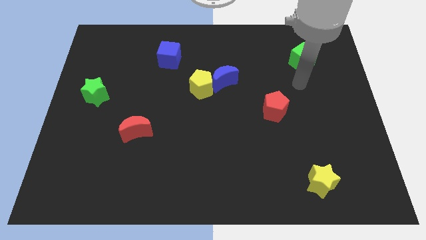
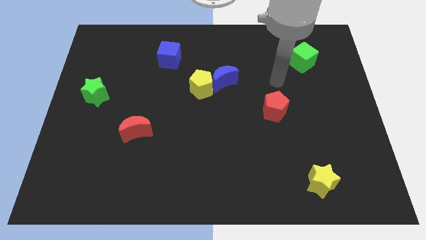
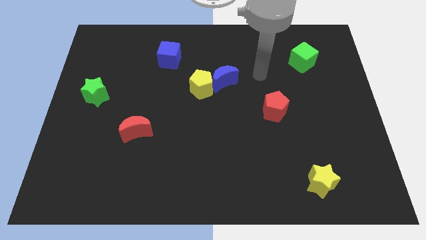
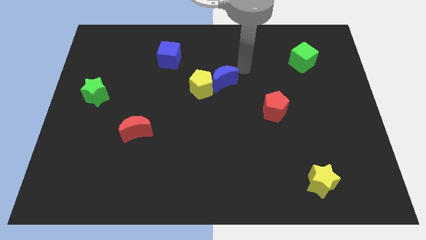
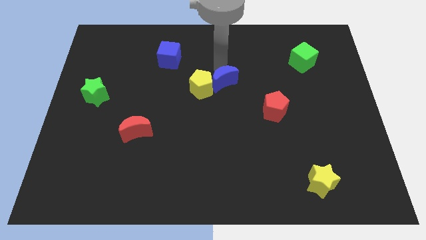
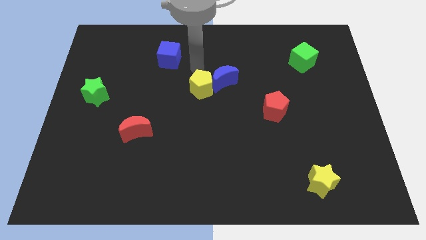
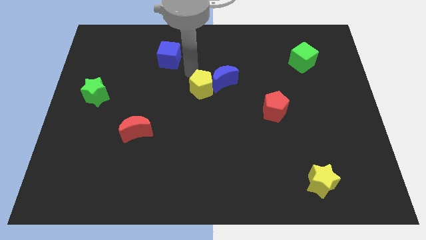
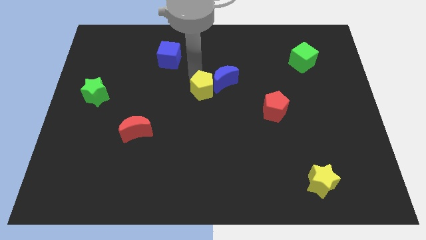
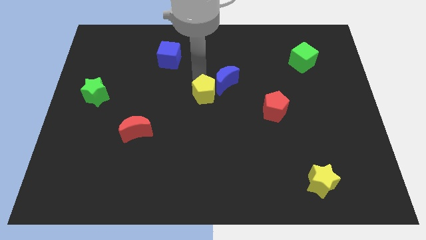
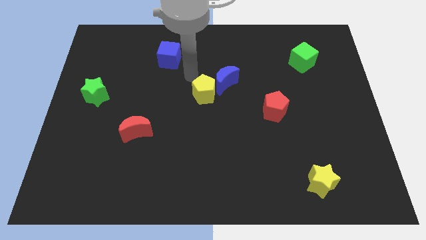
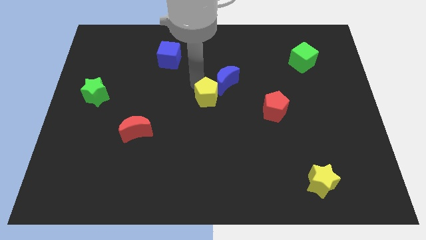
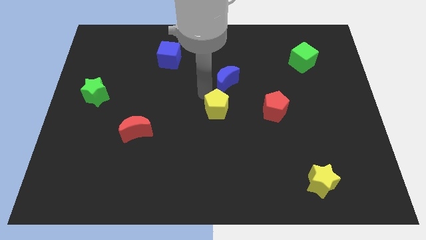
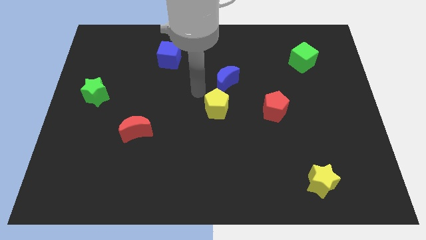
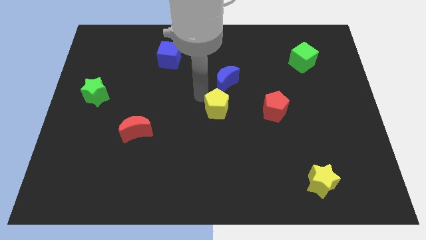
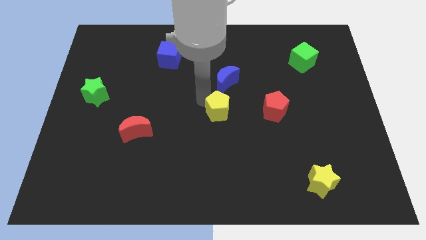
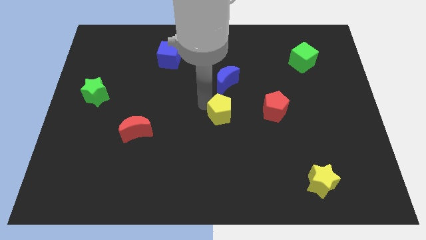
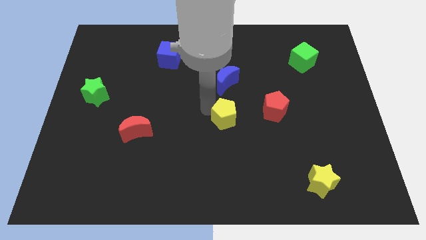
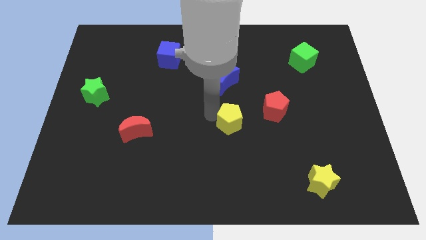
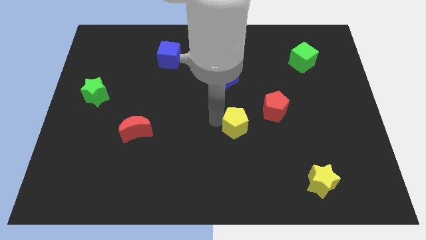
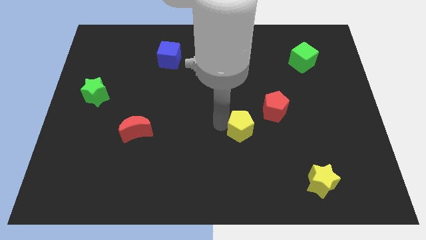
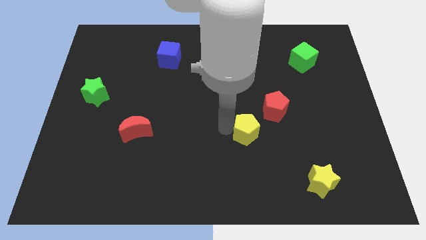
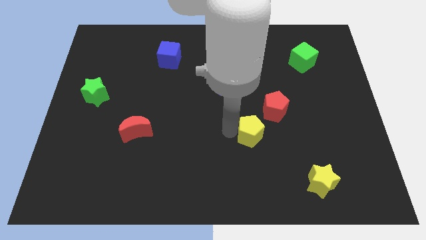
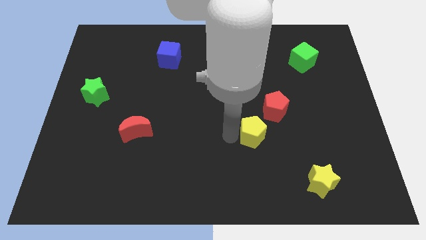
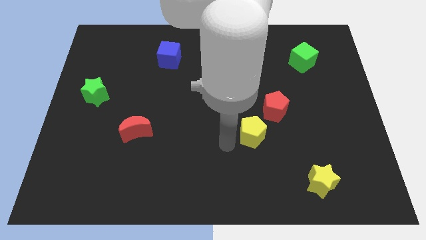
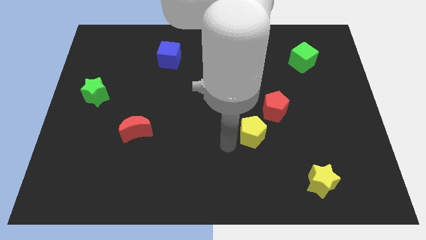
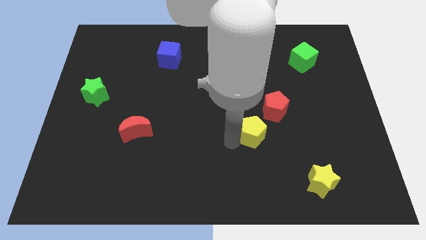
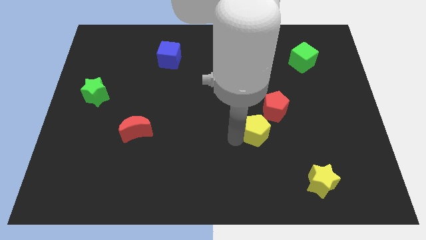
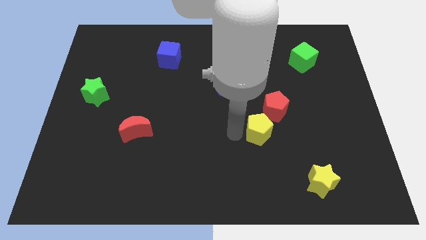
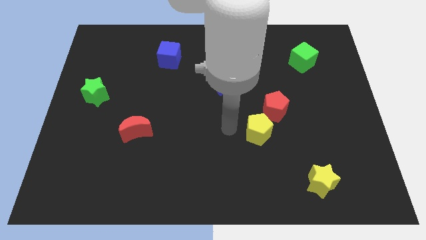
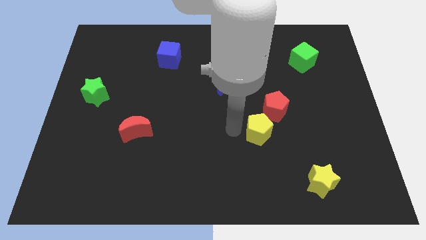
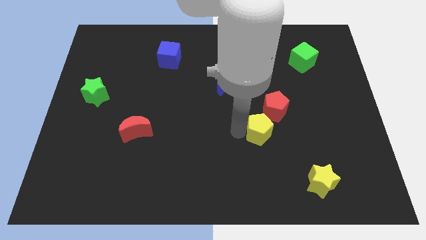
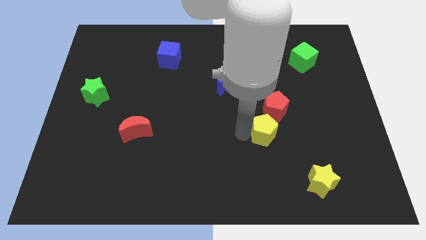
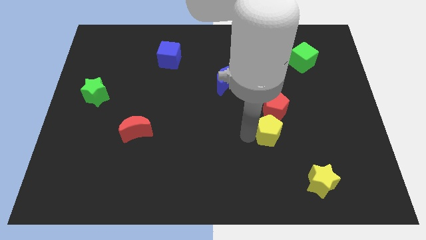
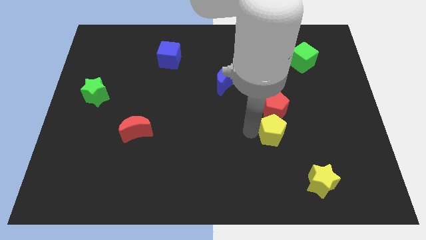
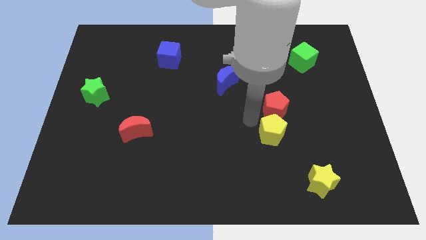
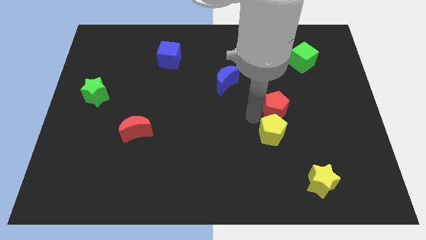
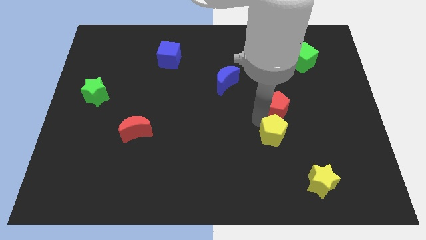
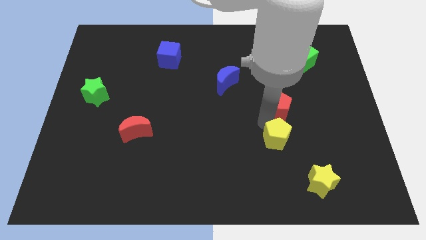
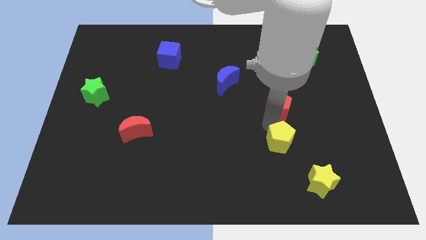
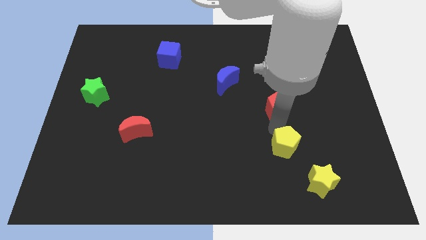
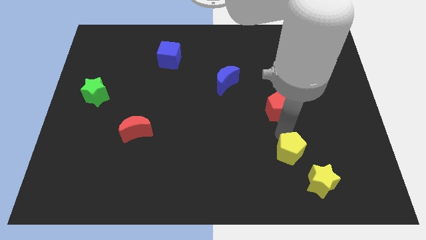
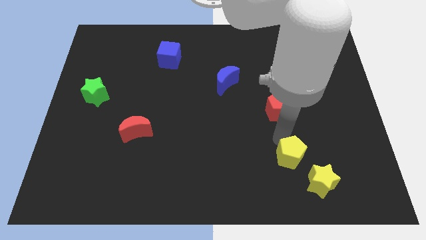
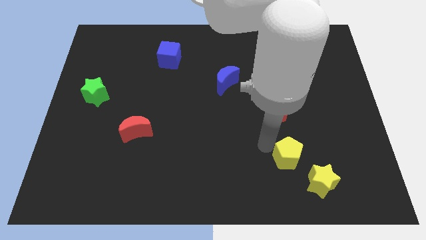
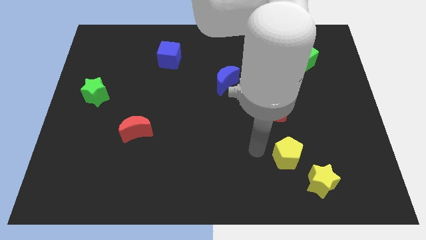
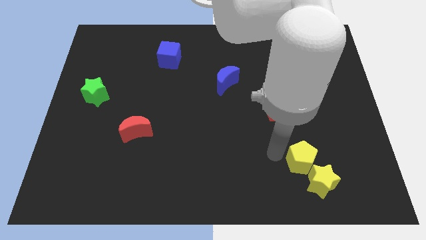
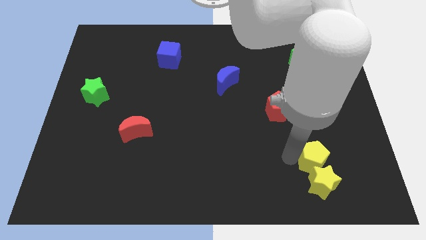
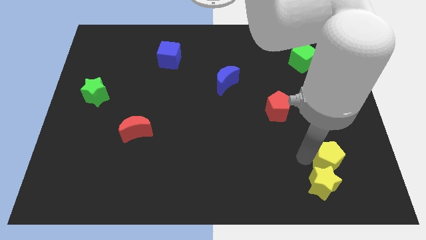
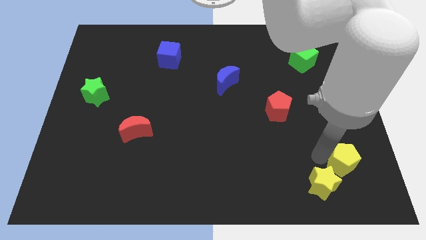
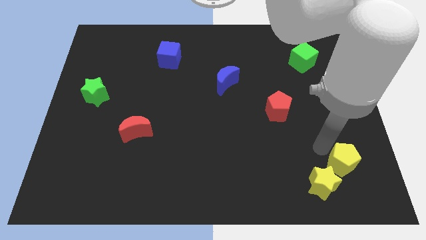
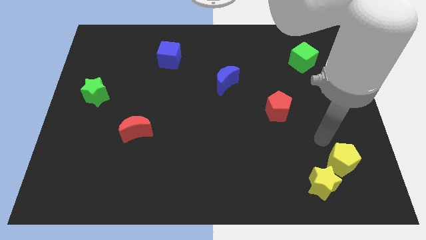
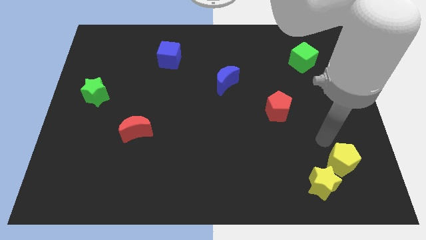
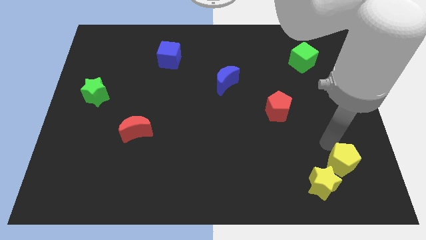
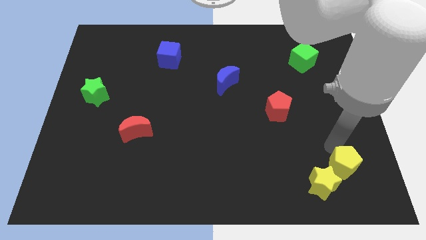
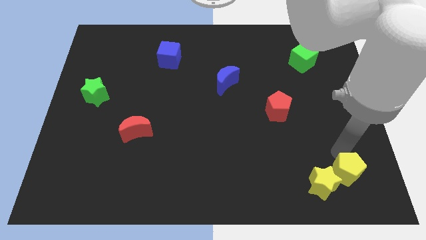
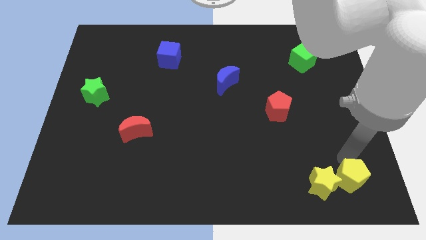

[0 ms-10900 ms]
move the yellow pentagon to the bottom right of the board

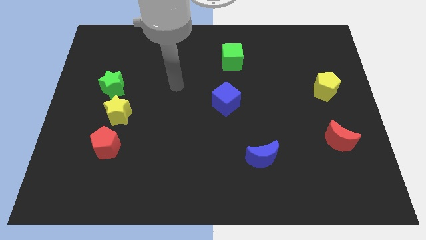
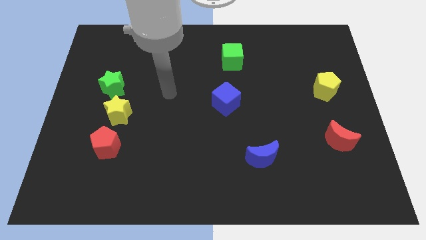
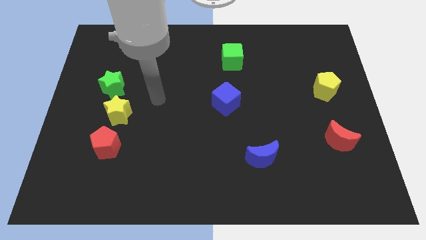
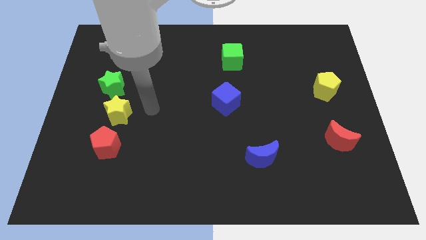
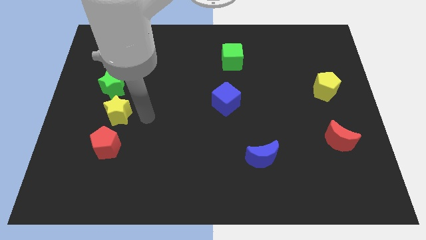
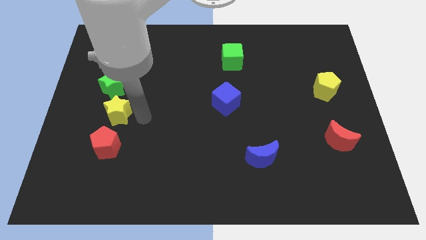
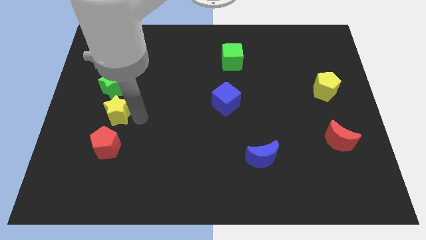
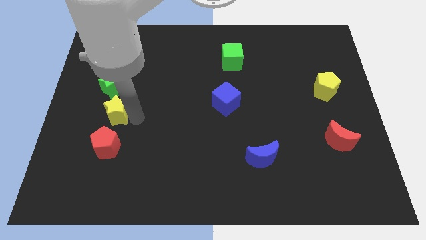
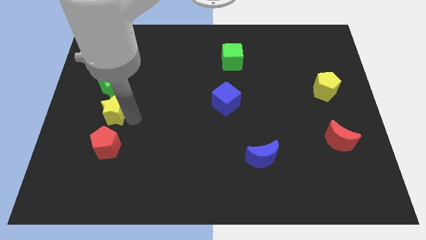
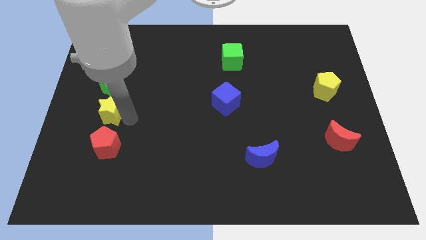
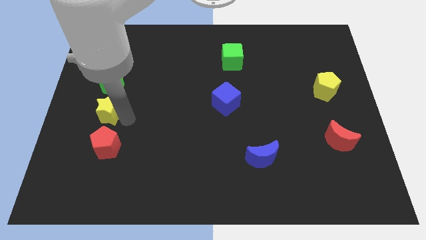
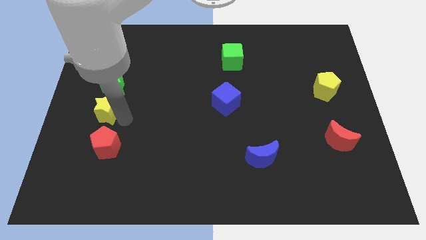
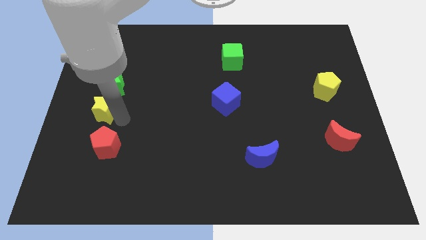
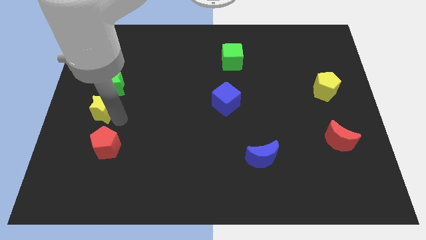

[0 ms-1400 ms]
put the yellow star to the left side of the board

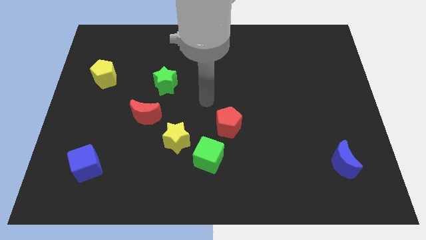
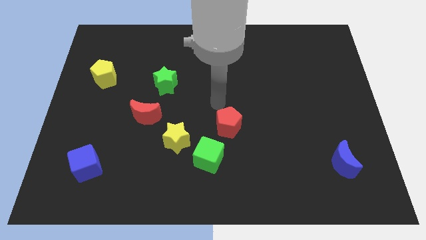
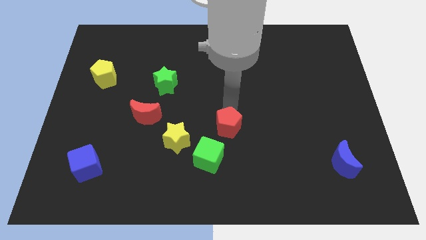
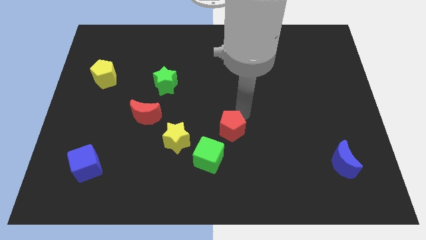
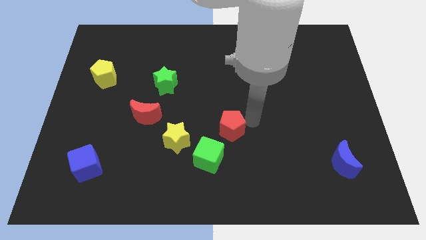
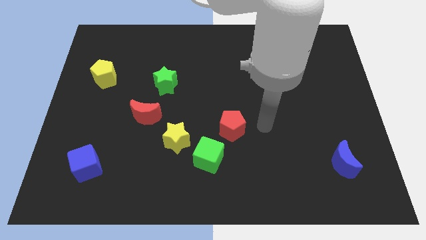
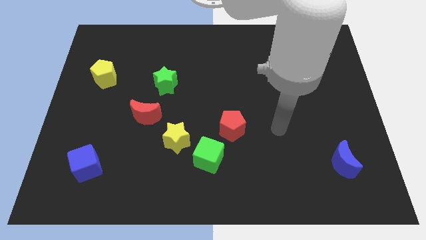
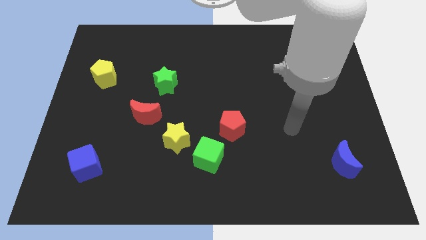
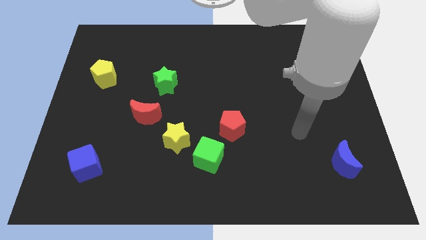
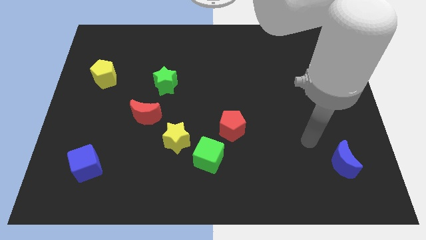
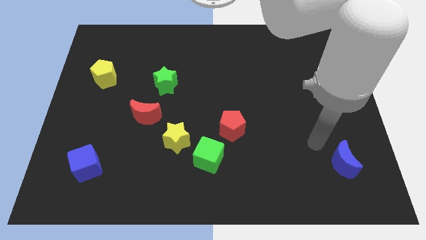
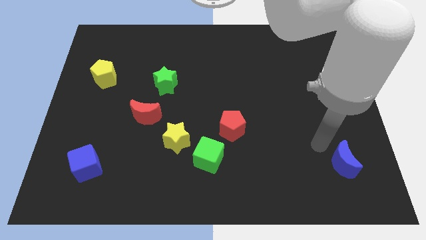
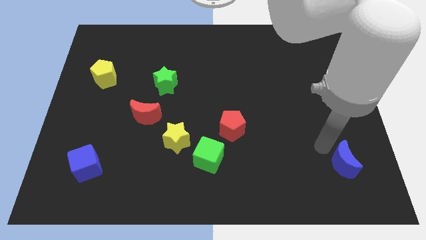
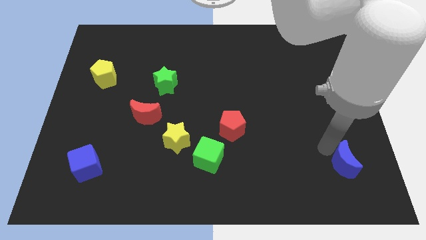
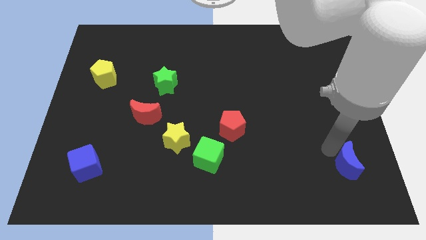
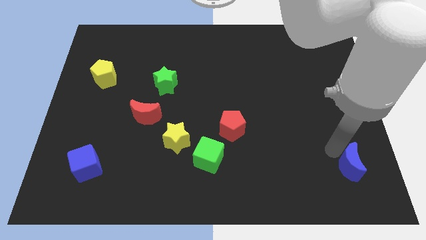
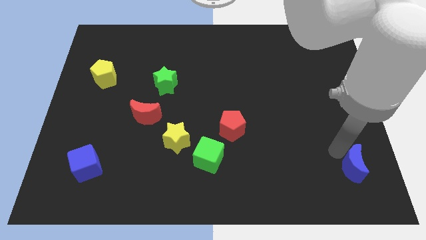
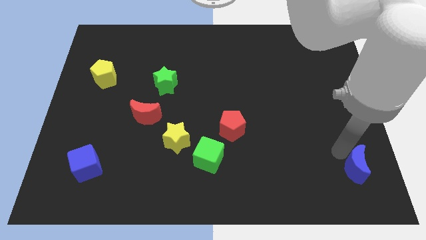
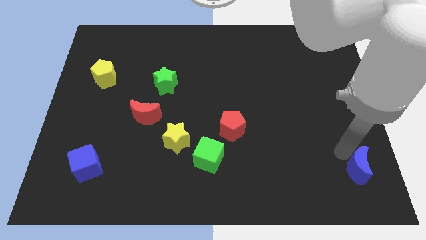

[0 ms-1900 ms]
slide the blue moon to the bottom right
